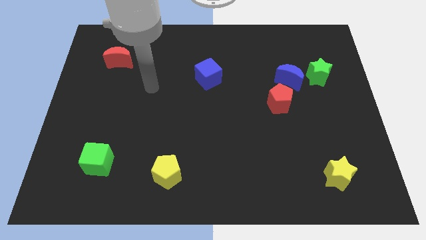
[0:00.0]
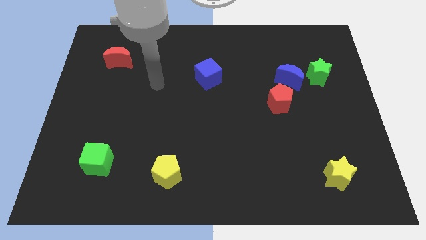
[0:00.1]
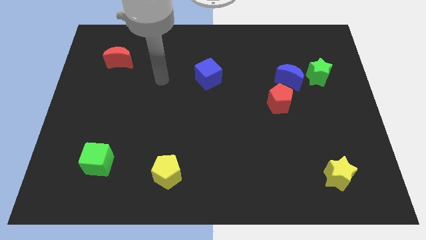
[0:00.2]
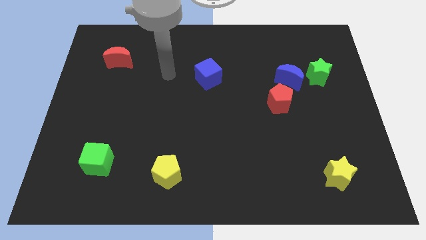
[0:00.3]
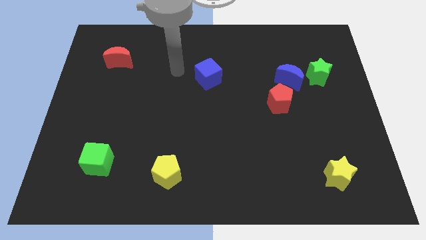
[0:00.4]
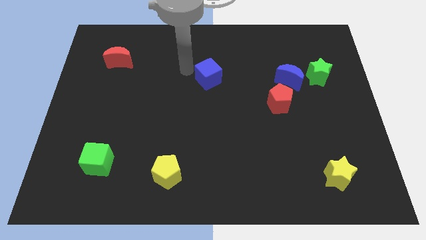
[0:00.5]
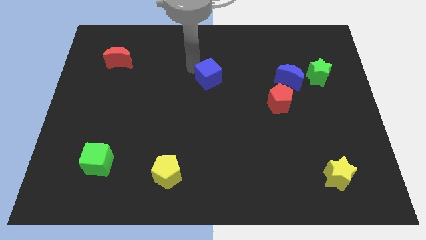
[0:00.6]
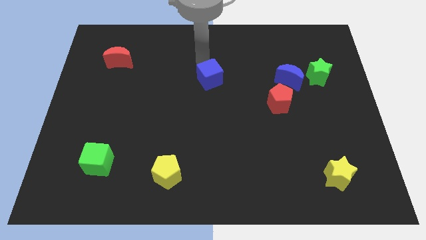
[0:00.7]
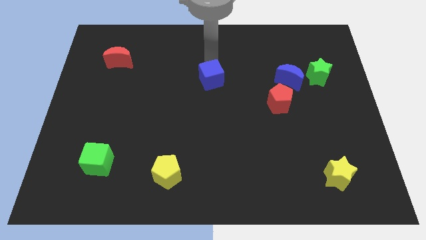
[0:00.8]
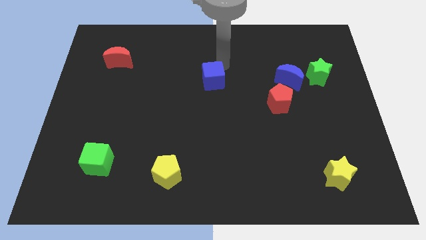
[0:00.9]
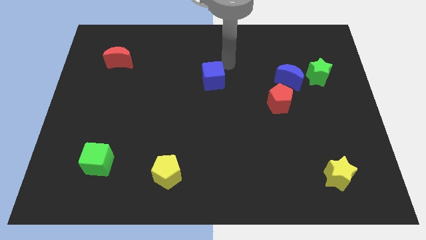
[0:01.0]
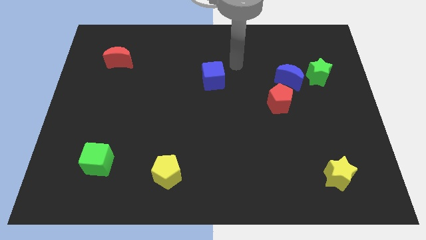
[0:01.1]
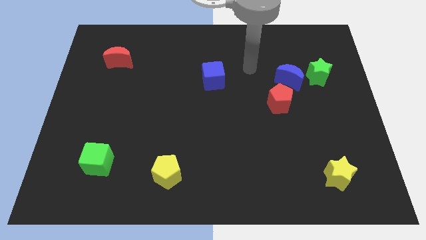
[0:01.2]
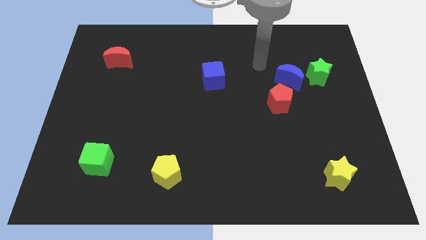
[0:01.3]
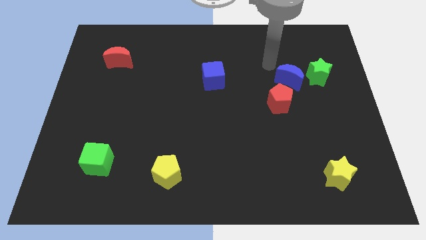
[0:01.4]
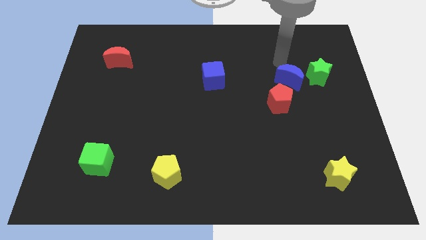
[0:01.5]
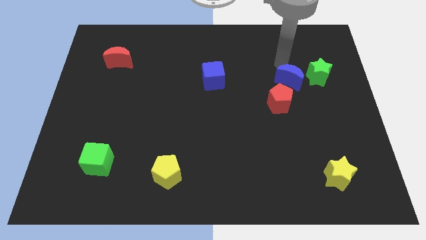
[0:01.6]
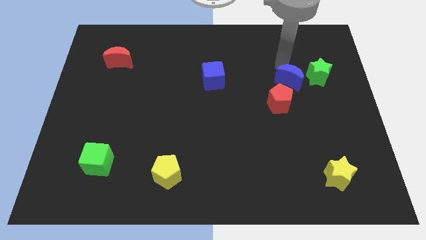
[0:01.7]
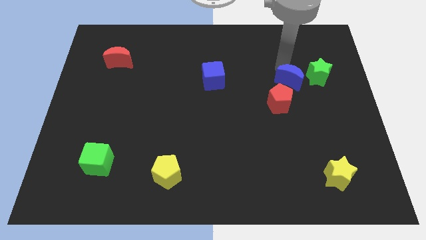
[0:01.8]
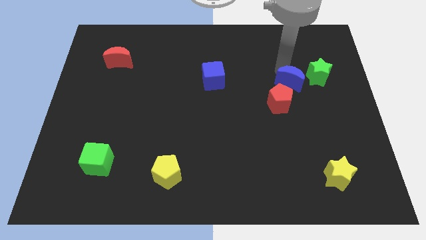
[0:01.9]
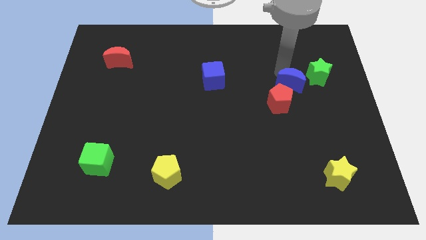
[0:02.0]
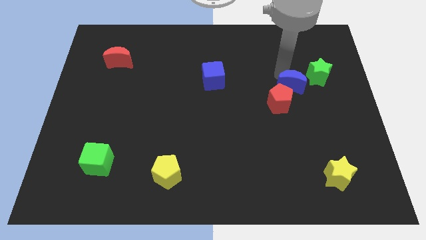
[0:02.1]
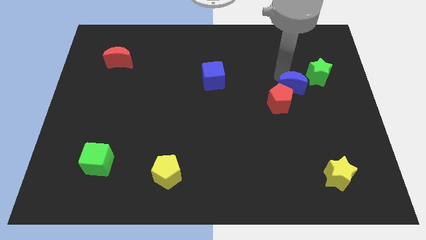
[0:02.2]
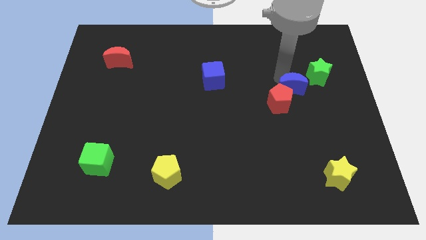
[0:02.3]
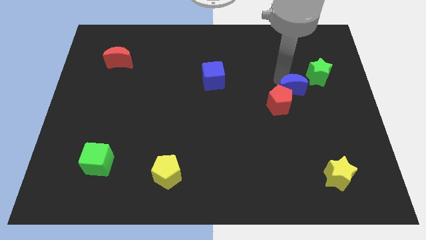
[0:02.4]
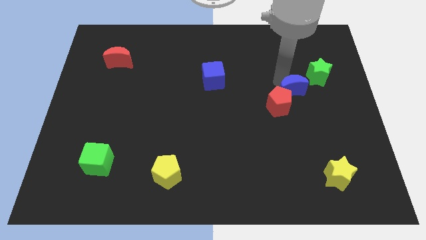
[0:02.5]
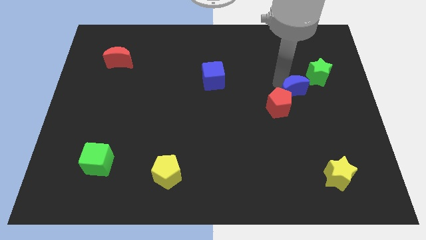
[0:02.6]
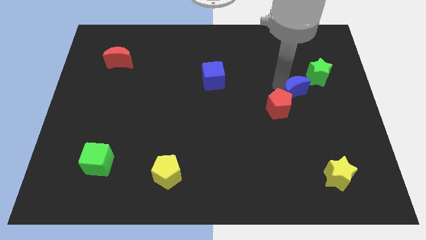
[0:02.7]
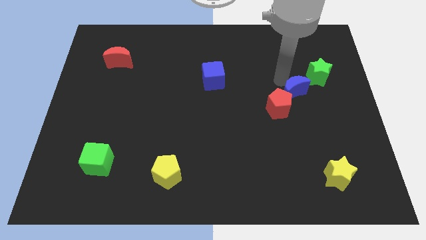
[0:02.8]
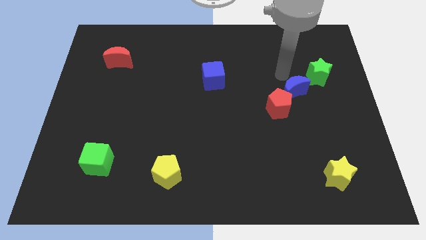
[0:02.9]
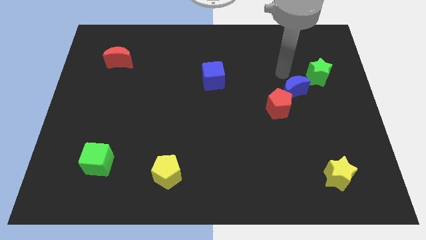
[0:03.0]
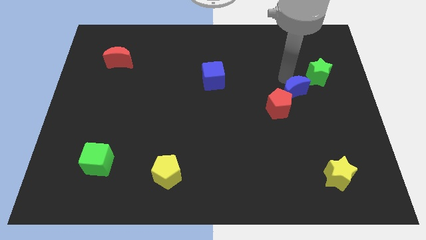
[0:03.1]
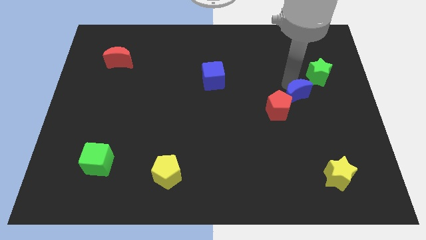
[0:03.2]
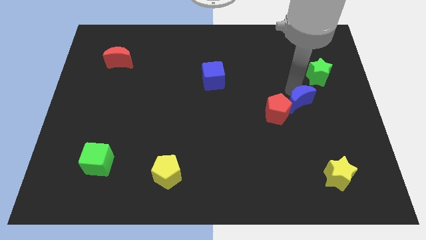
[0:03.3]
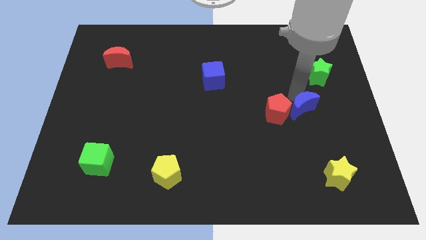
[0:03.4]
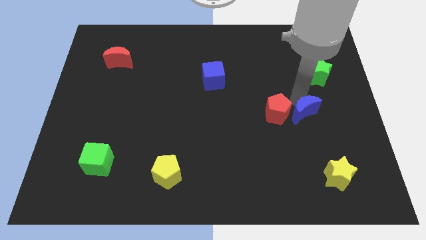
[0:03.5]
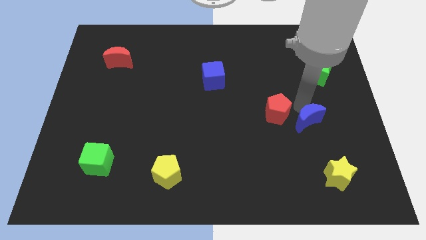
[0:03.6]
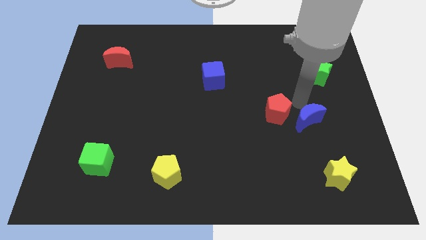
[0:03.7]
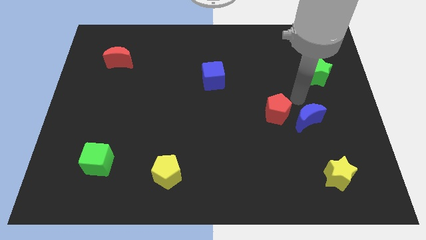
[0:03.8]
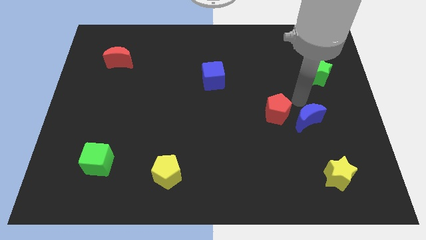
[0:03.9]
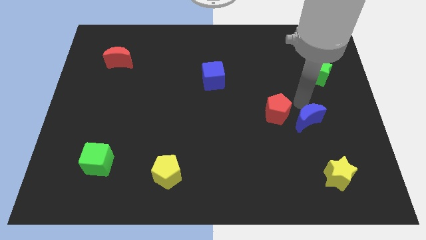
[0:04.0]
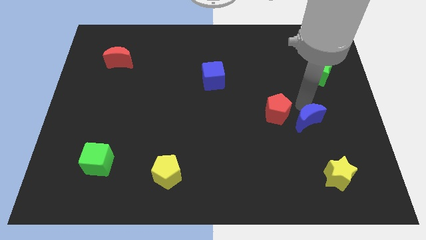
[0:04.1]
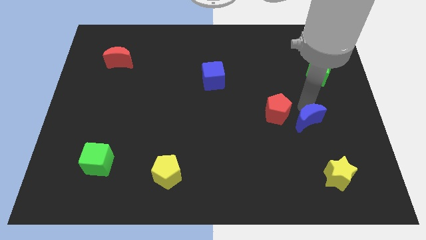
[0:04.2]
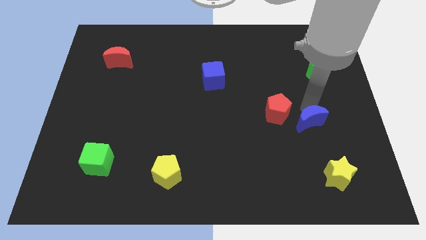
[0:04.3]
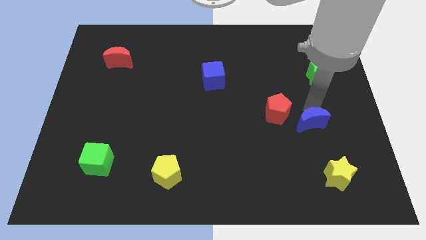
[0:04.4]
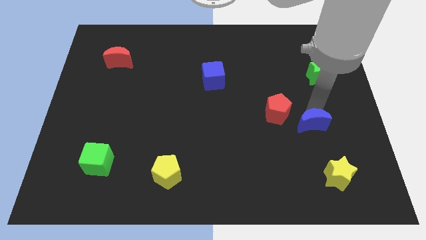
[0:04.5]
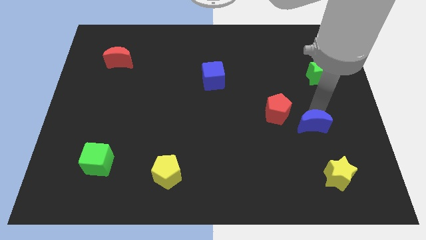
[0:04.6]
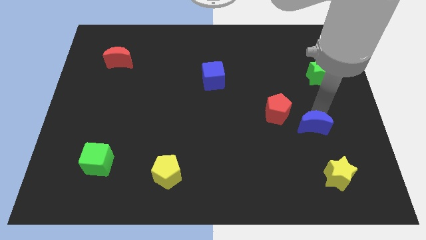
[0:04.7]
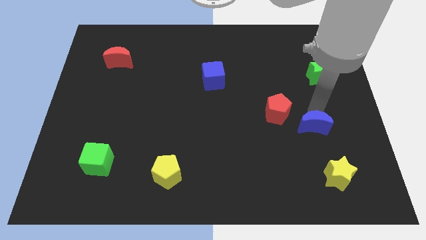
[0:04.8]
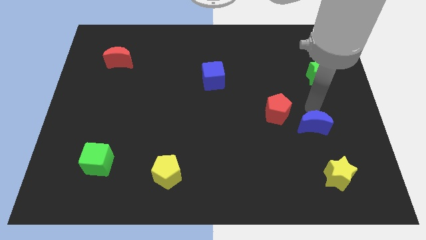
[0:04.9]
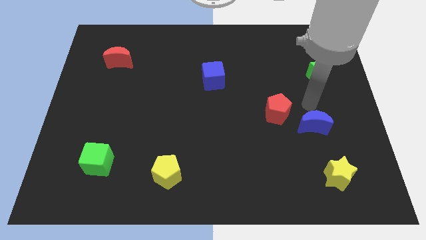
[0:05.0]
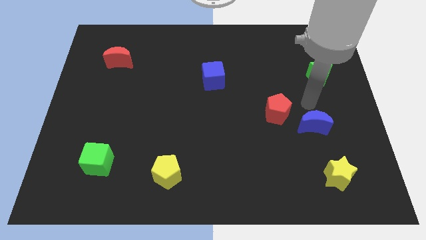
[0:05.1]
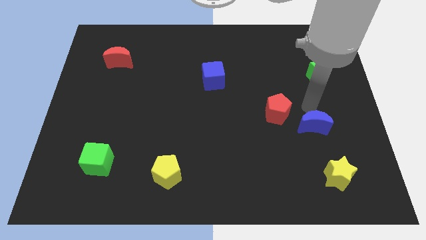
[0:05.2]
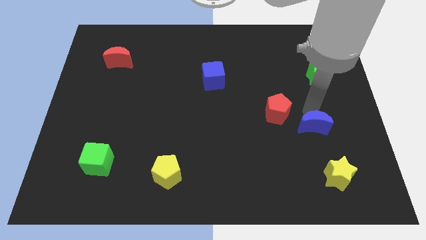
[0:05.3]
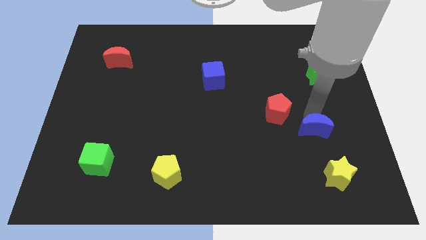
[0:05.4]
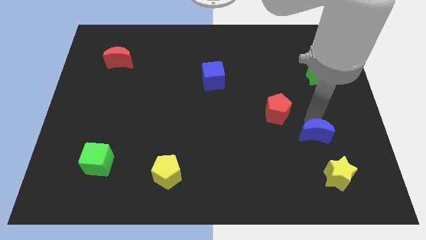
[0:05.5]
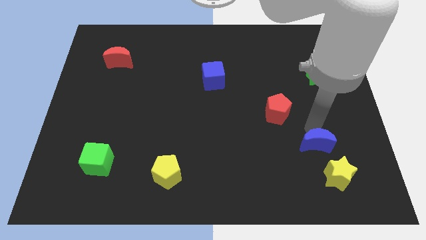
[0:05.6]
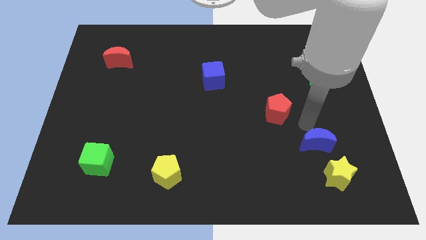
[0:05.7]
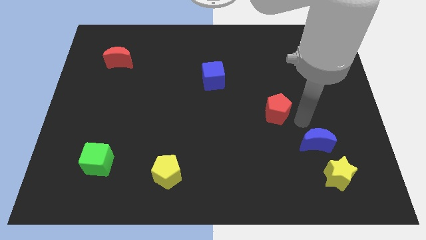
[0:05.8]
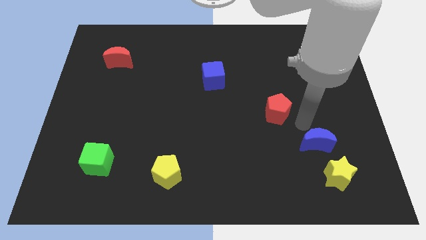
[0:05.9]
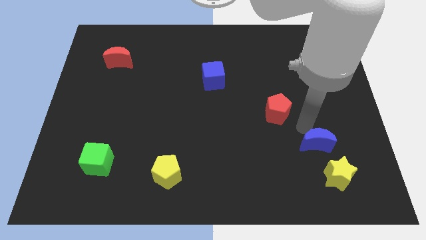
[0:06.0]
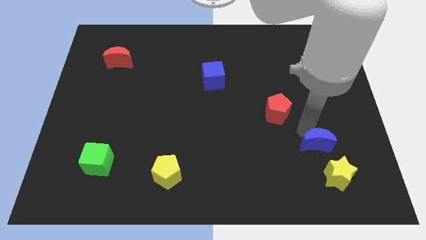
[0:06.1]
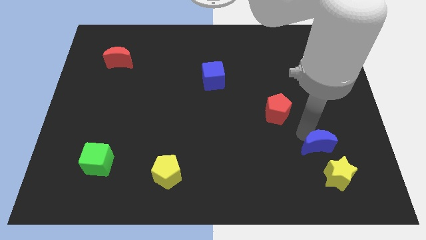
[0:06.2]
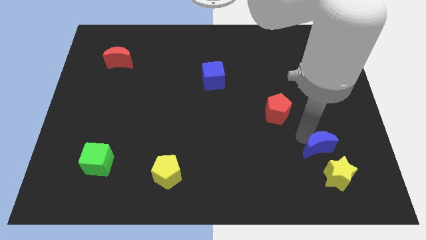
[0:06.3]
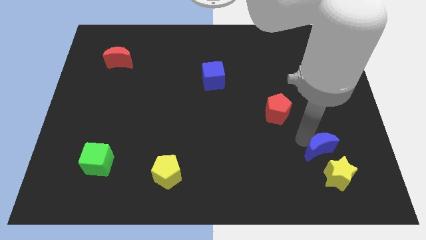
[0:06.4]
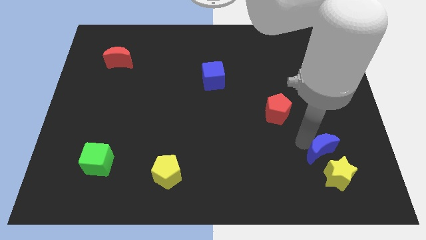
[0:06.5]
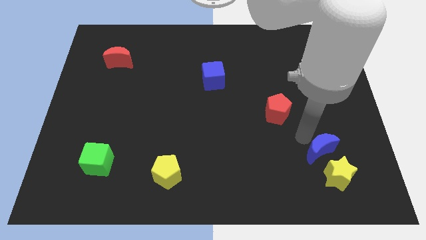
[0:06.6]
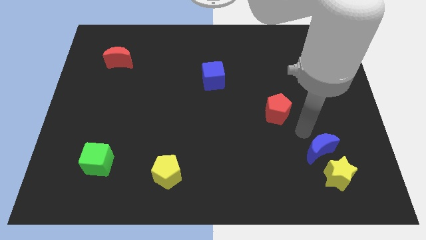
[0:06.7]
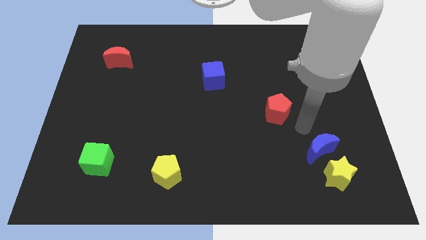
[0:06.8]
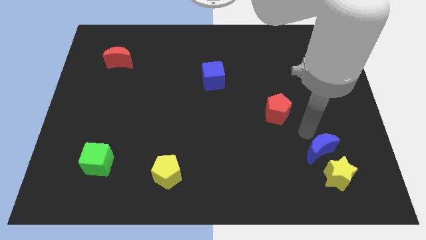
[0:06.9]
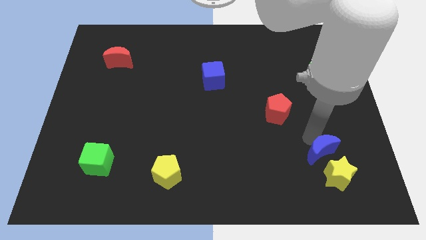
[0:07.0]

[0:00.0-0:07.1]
put the blue moon to the yellow star

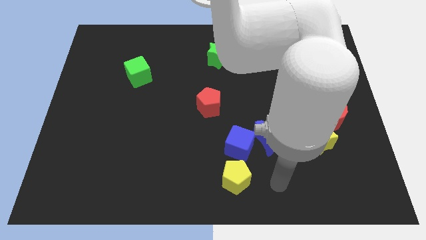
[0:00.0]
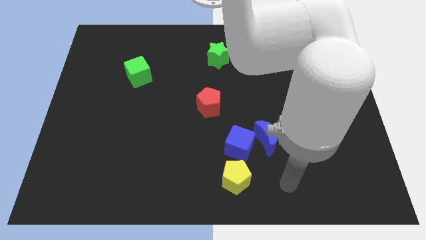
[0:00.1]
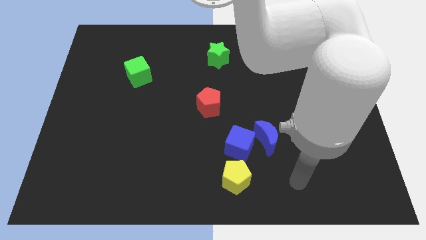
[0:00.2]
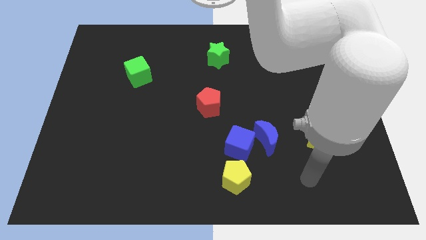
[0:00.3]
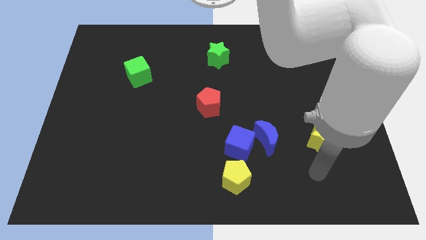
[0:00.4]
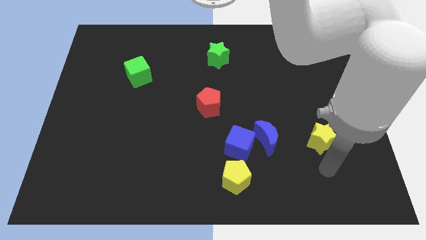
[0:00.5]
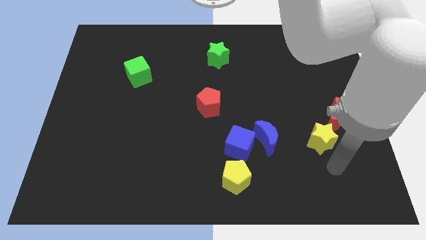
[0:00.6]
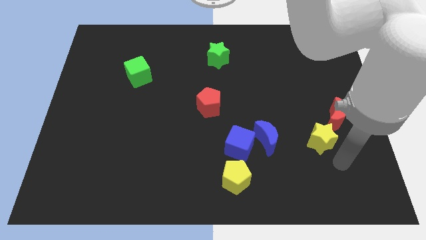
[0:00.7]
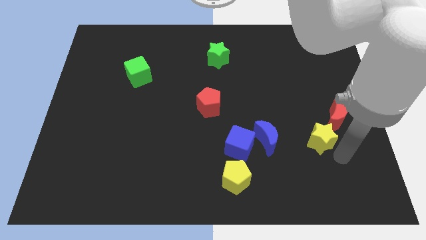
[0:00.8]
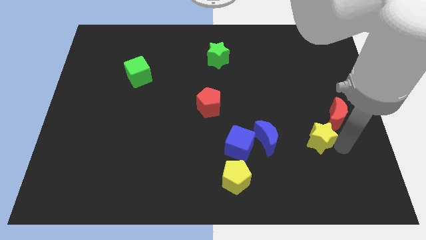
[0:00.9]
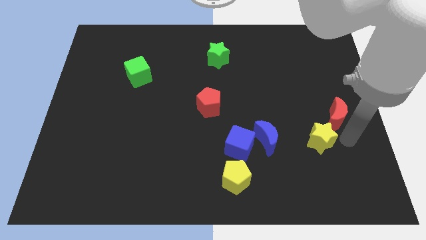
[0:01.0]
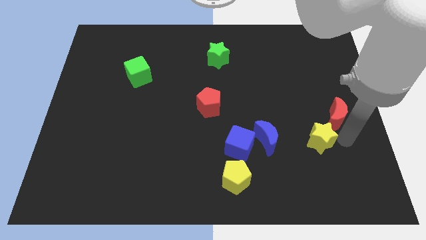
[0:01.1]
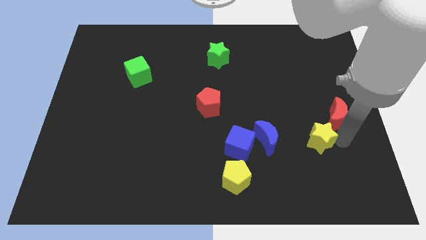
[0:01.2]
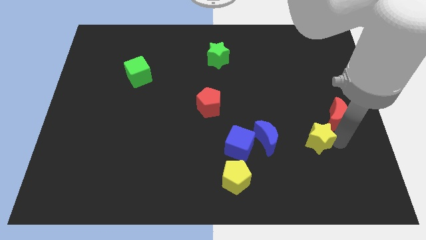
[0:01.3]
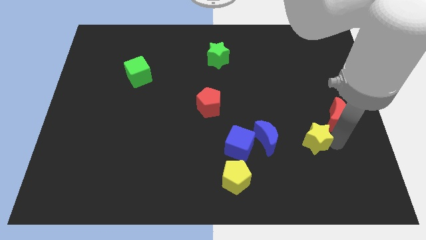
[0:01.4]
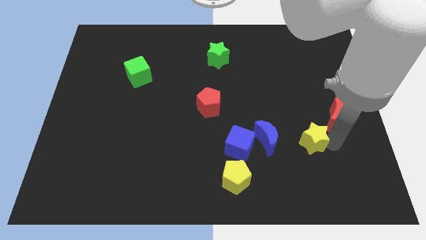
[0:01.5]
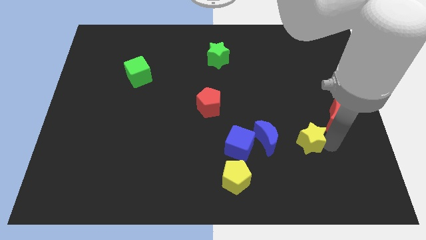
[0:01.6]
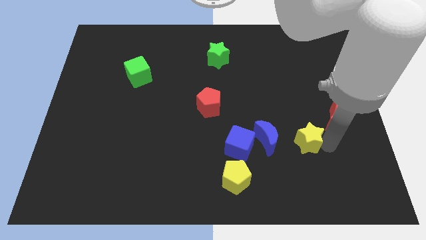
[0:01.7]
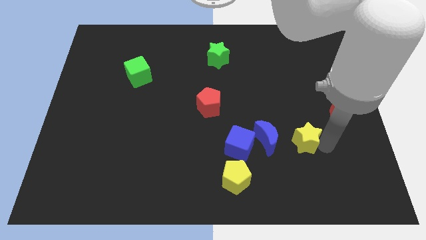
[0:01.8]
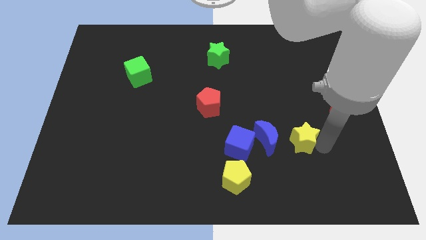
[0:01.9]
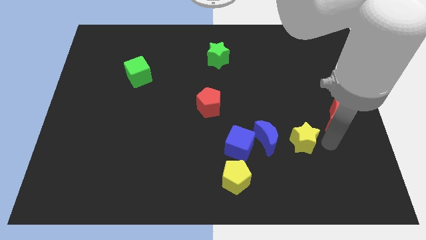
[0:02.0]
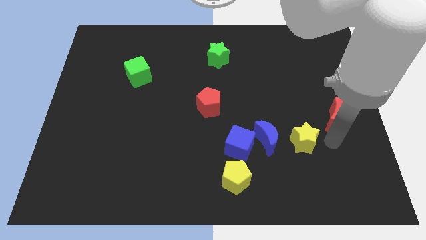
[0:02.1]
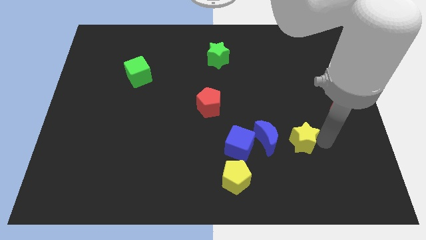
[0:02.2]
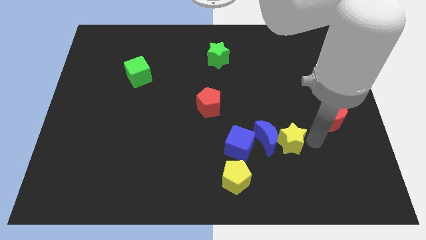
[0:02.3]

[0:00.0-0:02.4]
slide the yellow star to the blue moon
